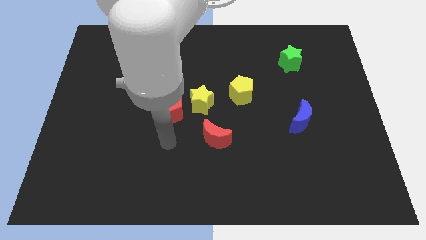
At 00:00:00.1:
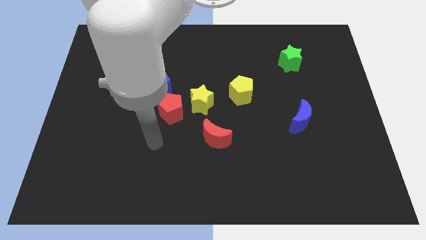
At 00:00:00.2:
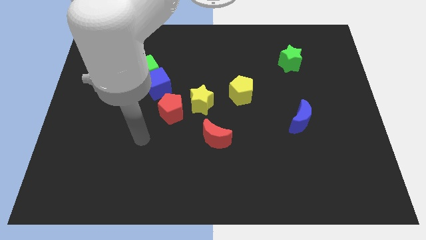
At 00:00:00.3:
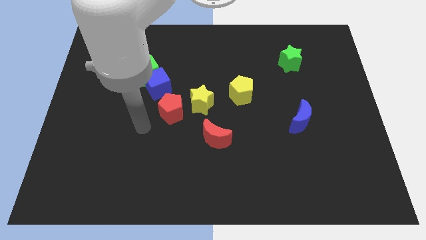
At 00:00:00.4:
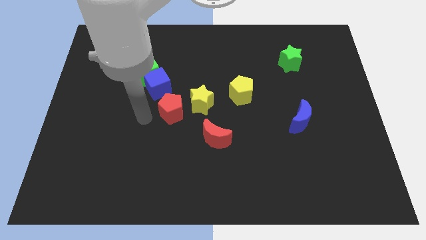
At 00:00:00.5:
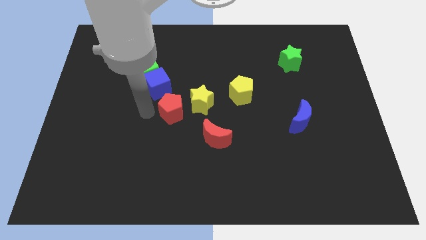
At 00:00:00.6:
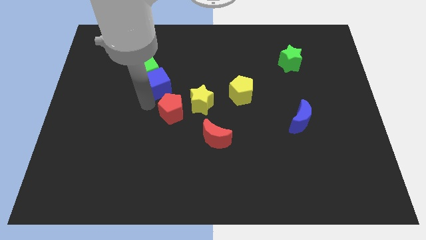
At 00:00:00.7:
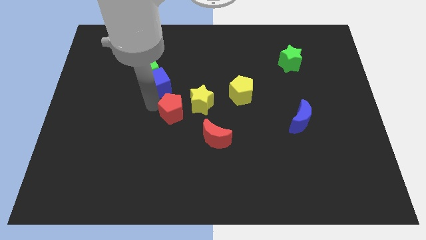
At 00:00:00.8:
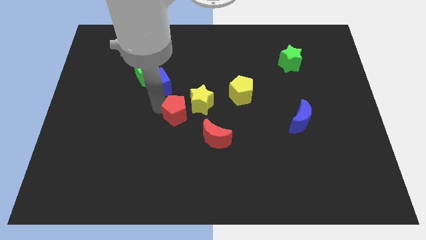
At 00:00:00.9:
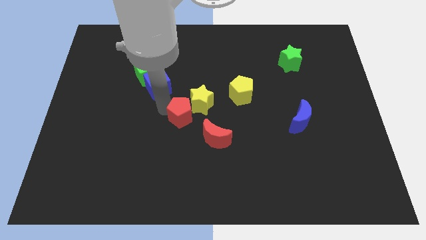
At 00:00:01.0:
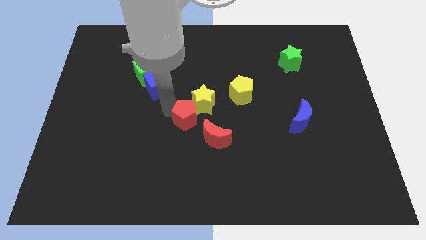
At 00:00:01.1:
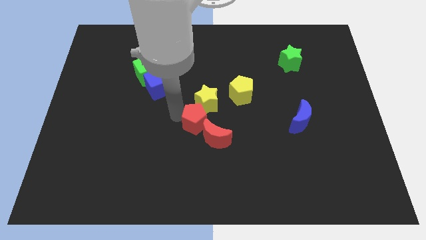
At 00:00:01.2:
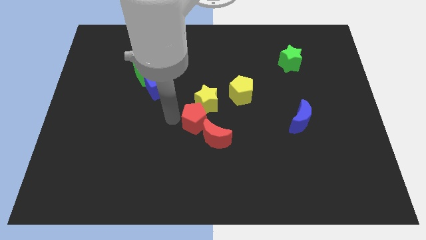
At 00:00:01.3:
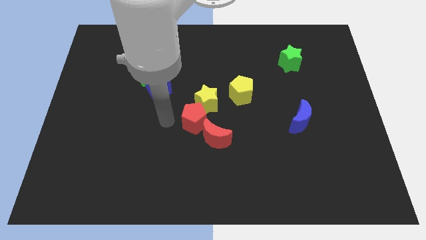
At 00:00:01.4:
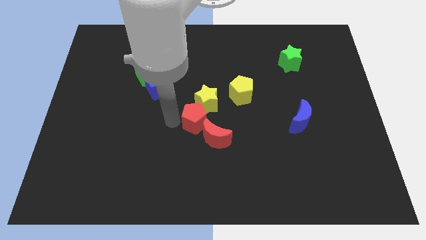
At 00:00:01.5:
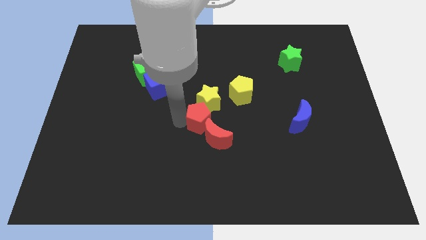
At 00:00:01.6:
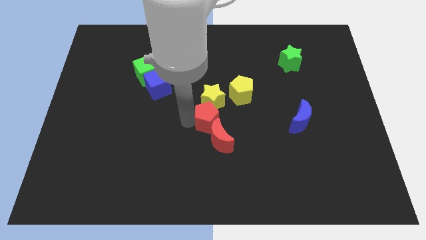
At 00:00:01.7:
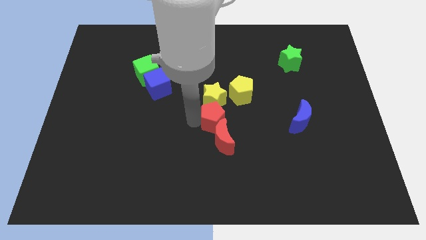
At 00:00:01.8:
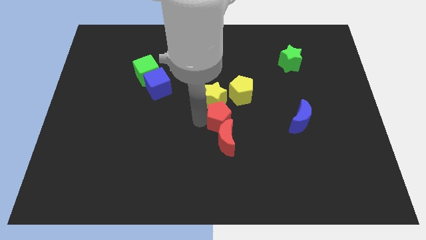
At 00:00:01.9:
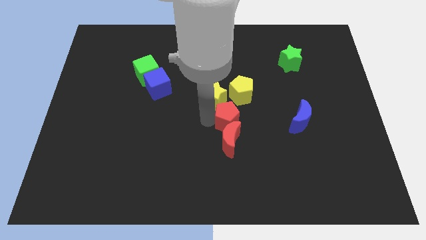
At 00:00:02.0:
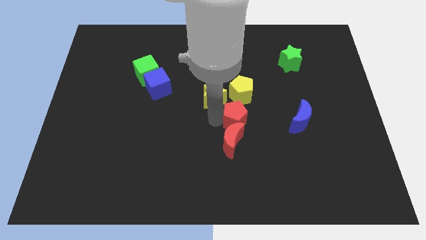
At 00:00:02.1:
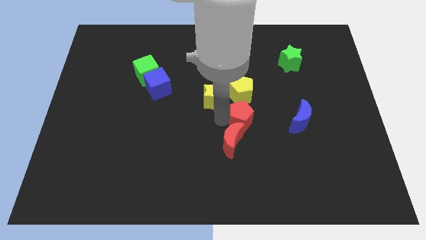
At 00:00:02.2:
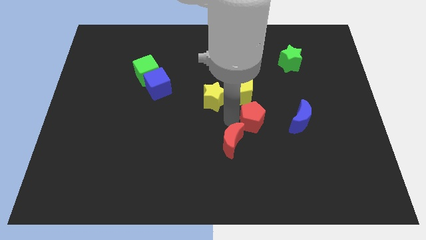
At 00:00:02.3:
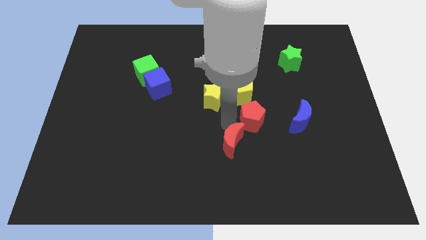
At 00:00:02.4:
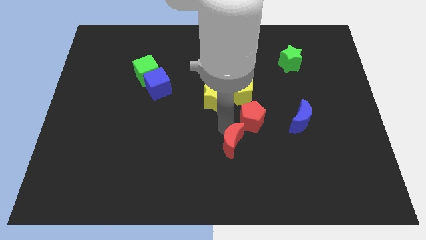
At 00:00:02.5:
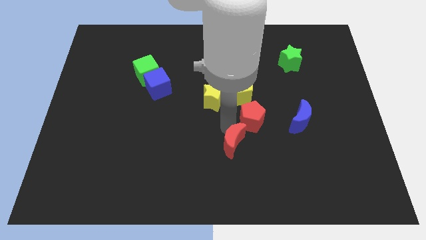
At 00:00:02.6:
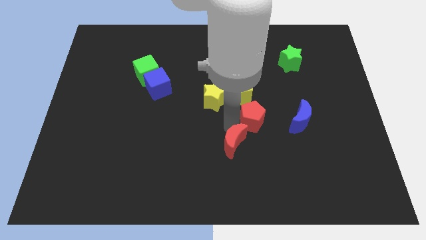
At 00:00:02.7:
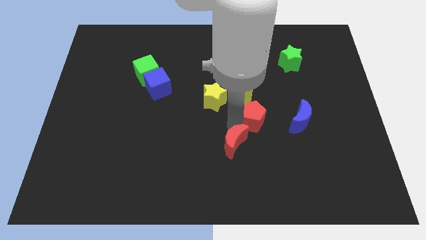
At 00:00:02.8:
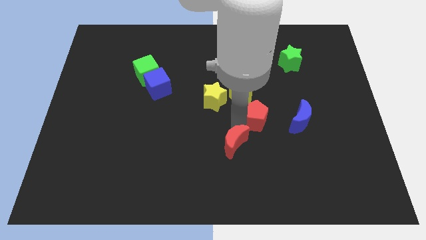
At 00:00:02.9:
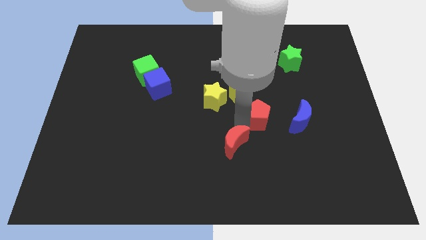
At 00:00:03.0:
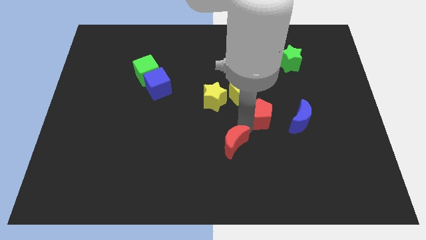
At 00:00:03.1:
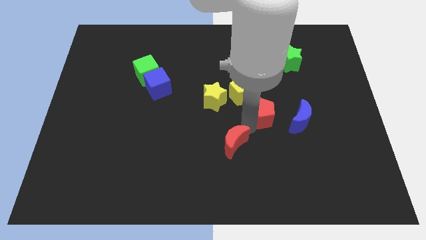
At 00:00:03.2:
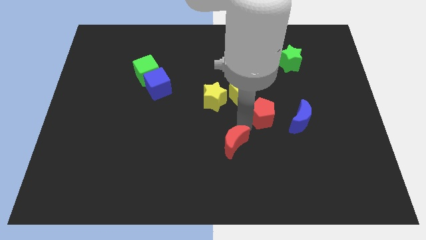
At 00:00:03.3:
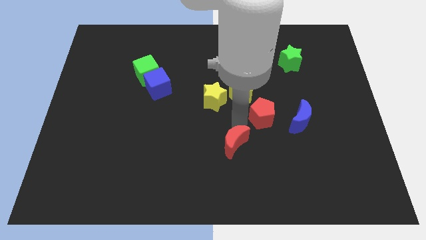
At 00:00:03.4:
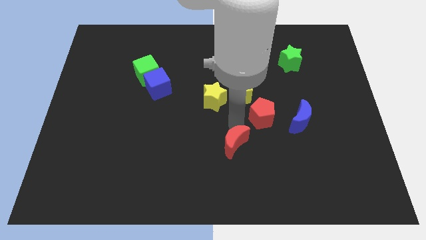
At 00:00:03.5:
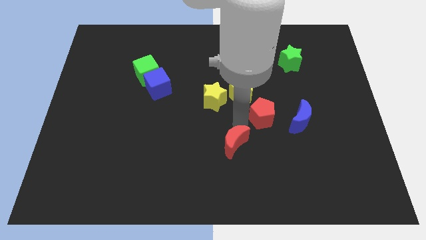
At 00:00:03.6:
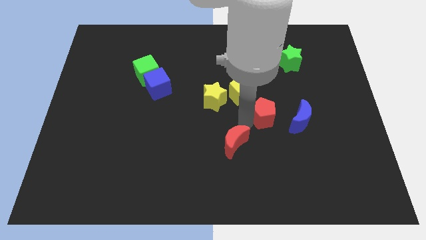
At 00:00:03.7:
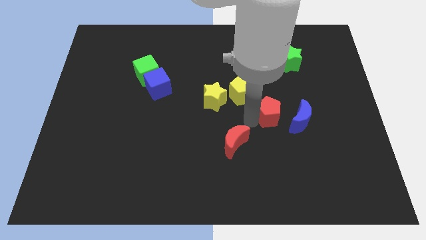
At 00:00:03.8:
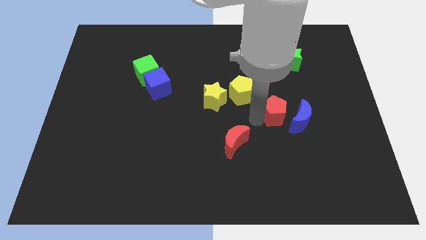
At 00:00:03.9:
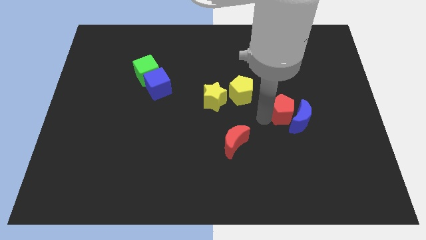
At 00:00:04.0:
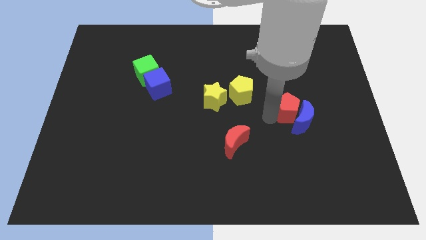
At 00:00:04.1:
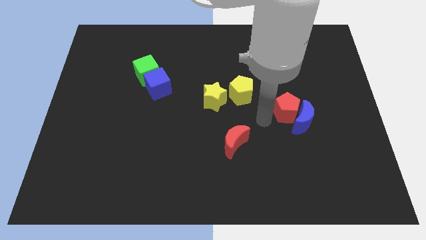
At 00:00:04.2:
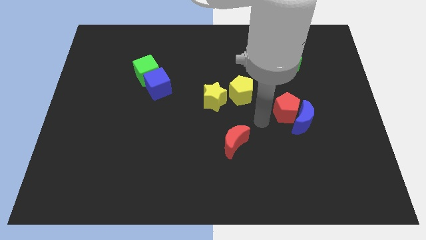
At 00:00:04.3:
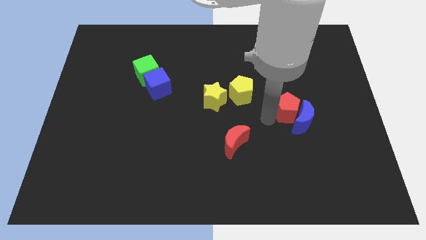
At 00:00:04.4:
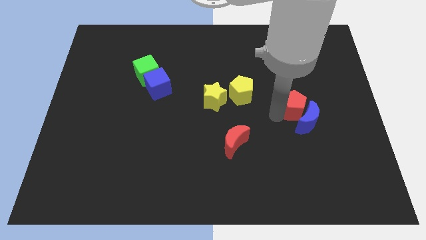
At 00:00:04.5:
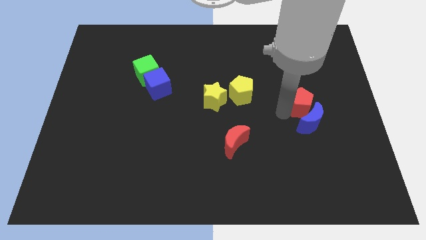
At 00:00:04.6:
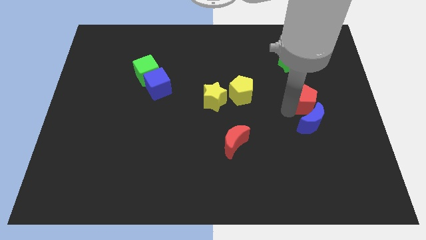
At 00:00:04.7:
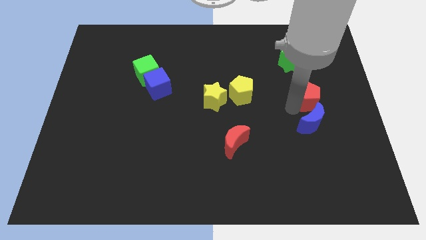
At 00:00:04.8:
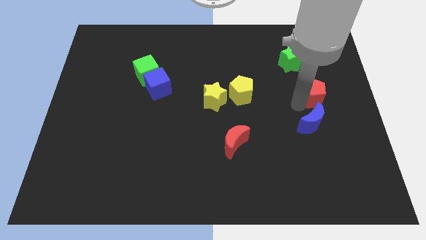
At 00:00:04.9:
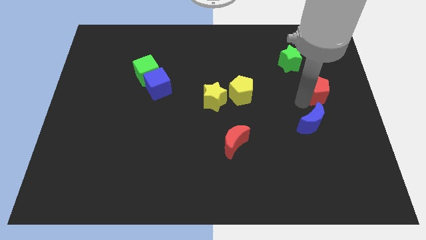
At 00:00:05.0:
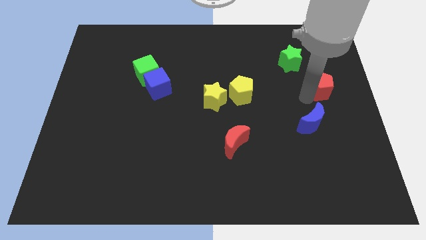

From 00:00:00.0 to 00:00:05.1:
put the red pentagon to the right side

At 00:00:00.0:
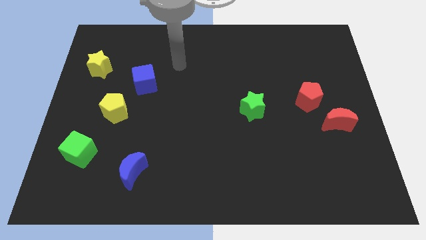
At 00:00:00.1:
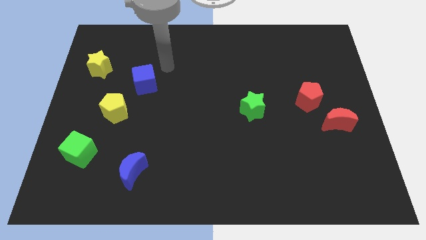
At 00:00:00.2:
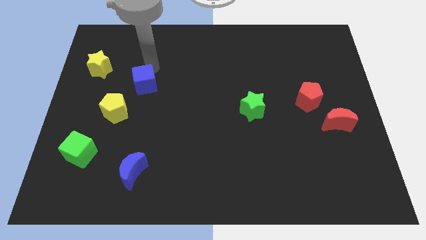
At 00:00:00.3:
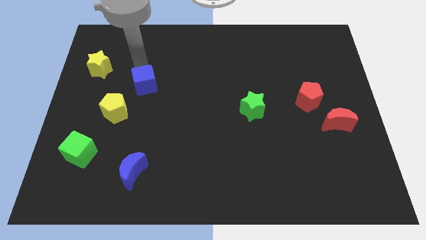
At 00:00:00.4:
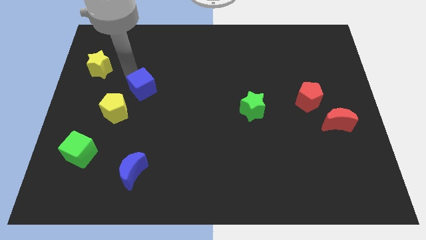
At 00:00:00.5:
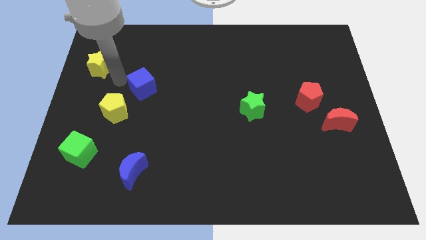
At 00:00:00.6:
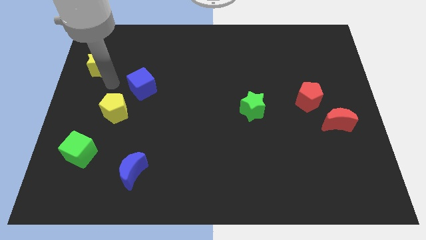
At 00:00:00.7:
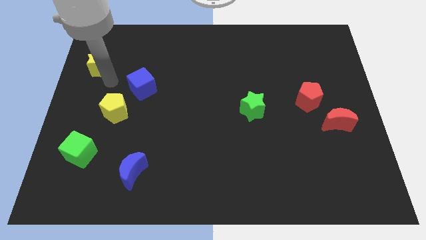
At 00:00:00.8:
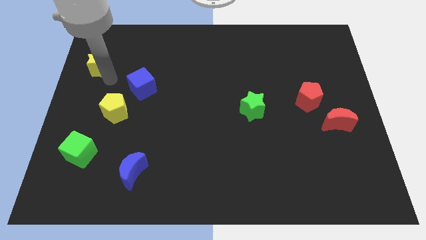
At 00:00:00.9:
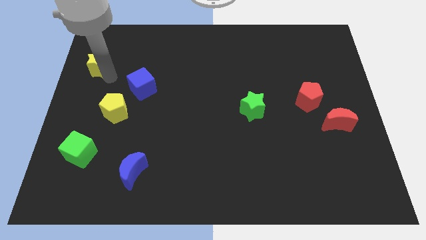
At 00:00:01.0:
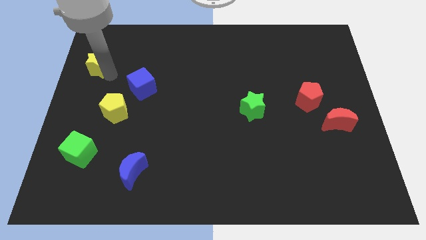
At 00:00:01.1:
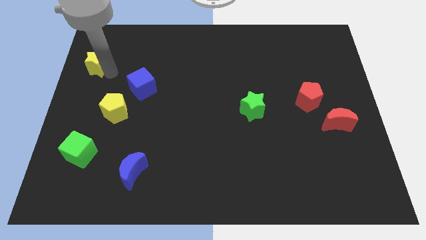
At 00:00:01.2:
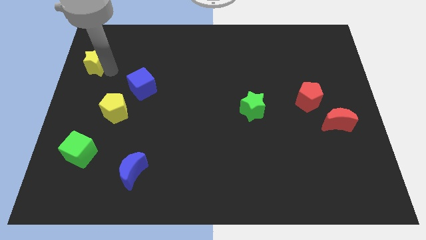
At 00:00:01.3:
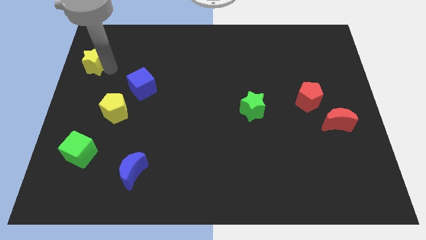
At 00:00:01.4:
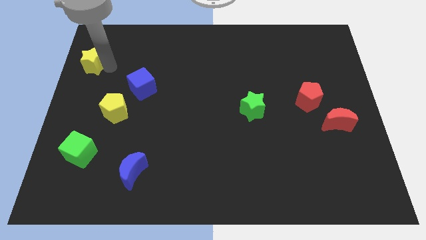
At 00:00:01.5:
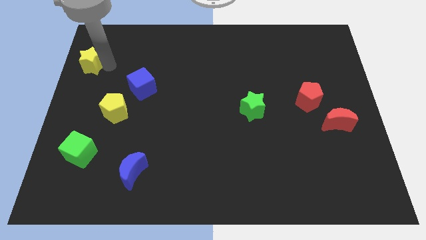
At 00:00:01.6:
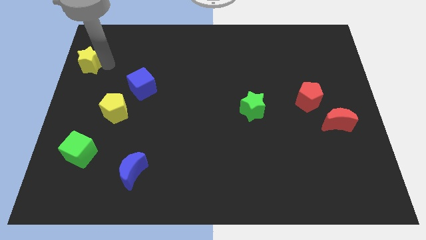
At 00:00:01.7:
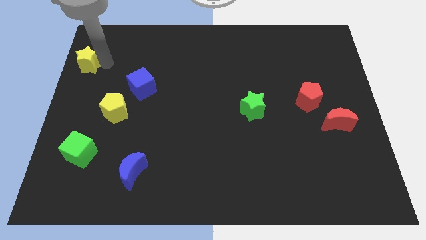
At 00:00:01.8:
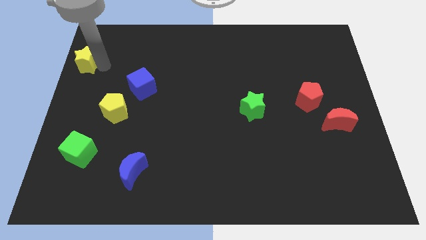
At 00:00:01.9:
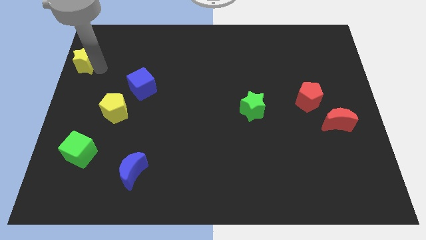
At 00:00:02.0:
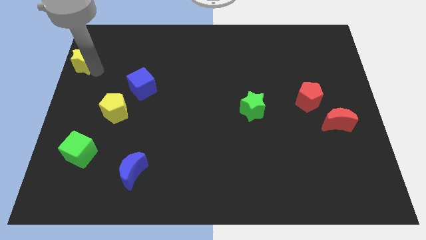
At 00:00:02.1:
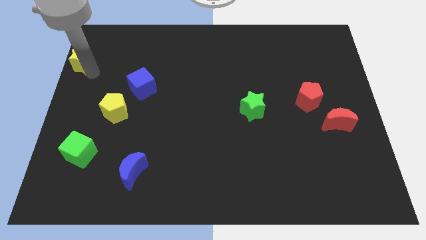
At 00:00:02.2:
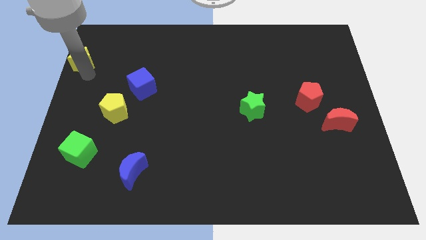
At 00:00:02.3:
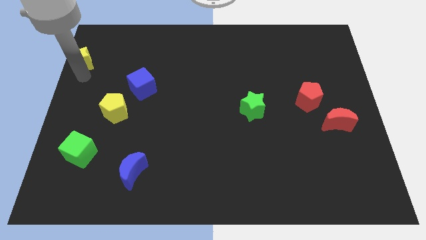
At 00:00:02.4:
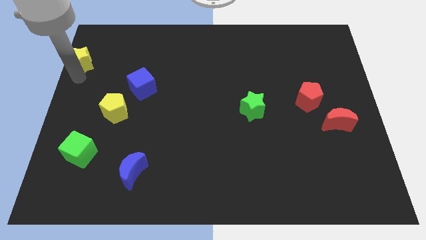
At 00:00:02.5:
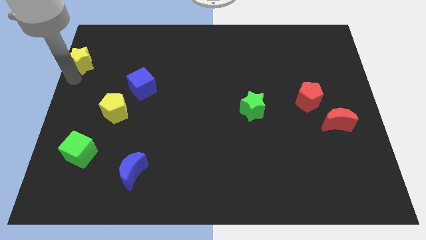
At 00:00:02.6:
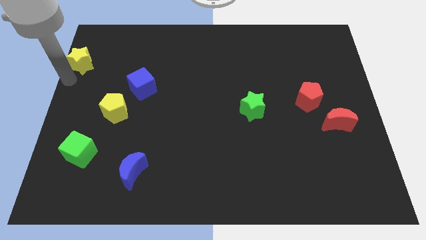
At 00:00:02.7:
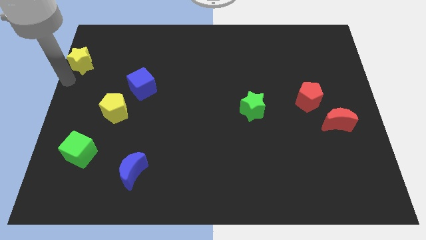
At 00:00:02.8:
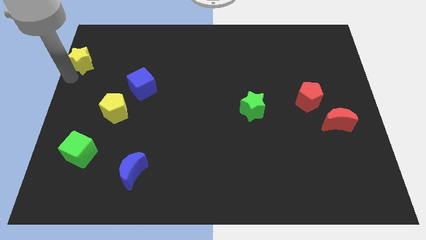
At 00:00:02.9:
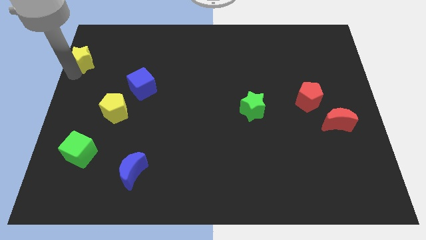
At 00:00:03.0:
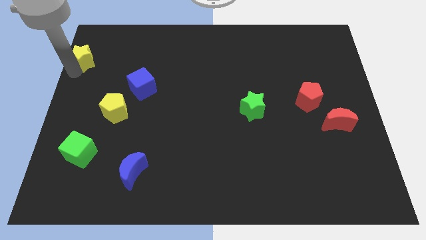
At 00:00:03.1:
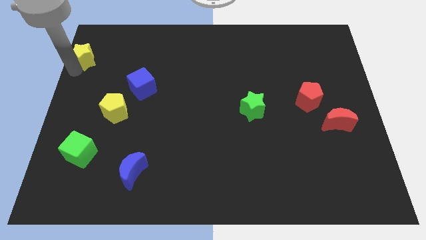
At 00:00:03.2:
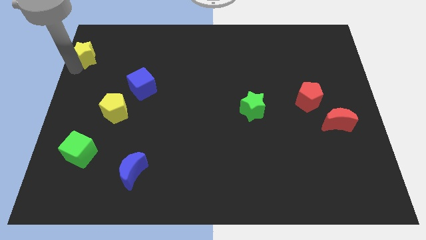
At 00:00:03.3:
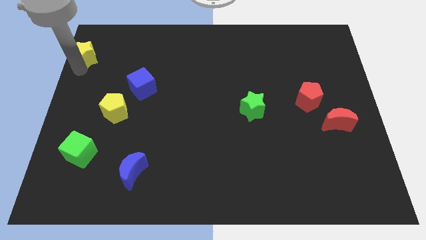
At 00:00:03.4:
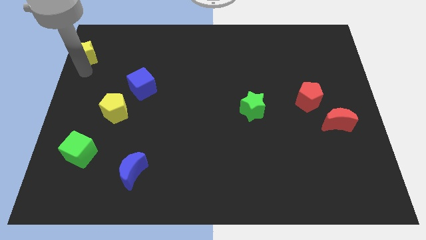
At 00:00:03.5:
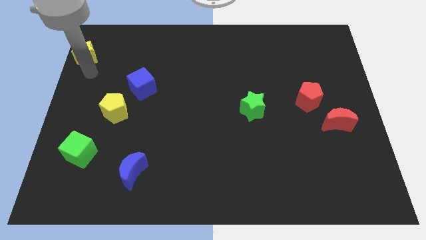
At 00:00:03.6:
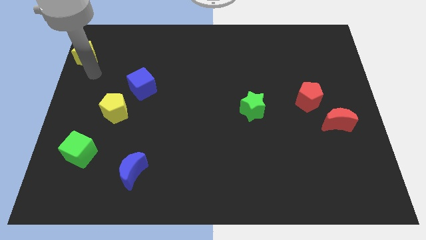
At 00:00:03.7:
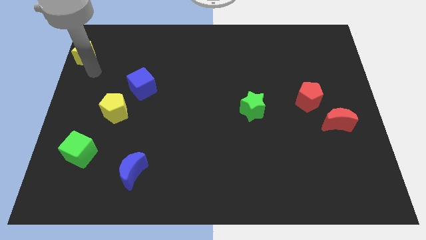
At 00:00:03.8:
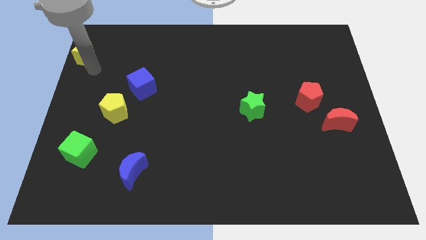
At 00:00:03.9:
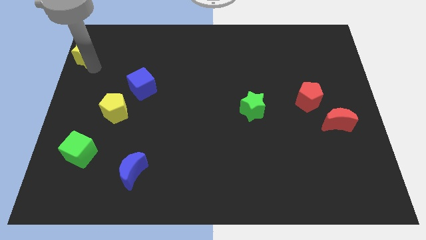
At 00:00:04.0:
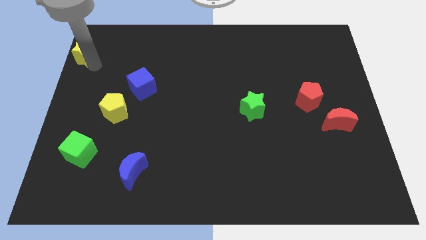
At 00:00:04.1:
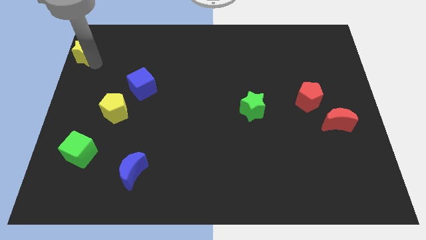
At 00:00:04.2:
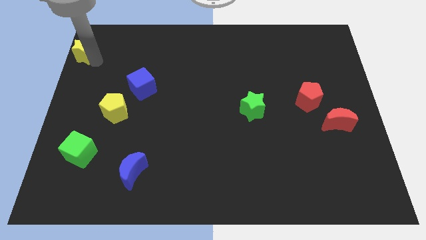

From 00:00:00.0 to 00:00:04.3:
push the yellow star to the top left of the board
